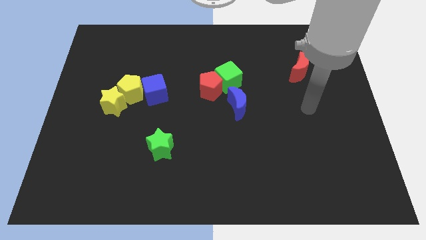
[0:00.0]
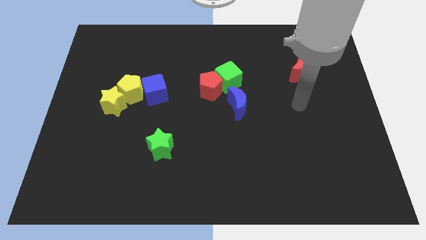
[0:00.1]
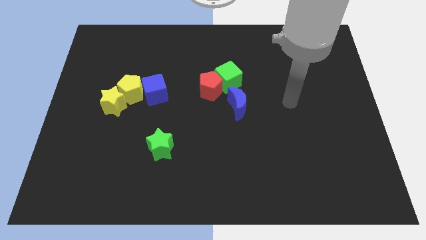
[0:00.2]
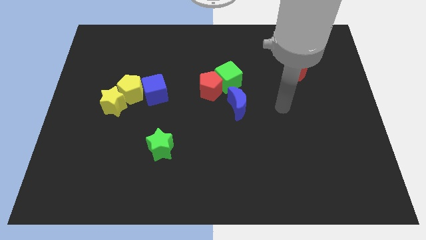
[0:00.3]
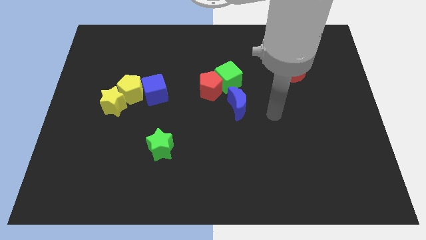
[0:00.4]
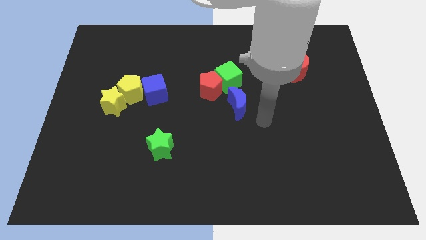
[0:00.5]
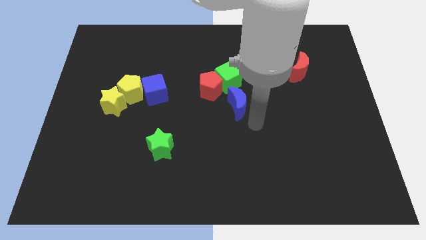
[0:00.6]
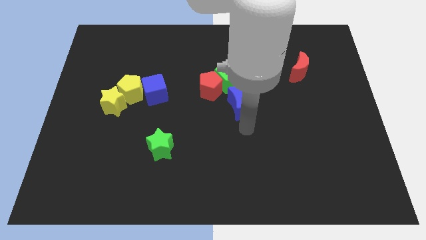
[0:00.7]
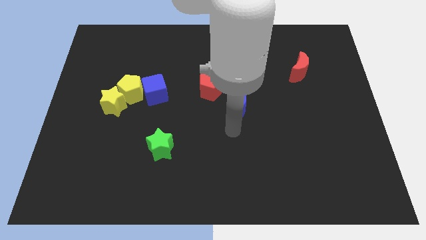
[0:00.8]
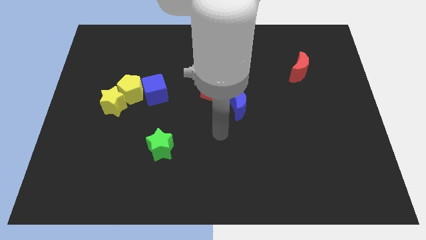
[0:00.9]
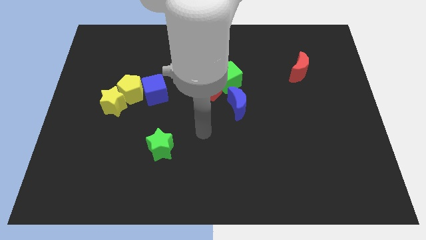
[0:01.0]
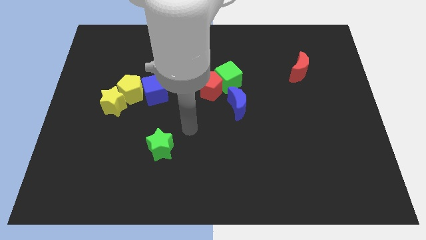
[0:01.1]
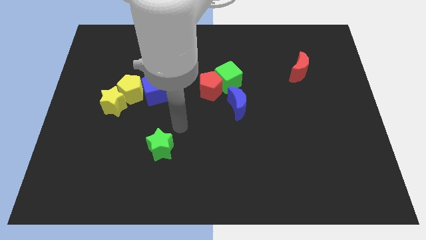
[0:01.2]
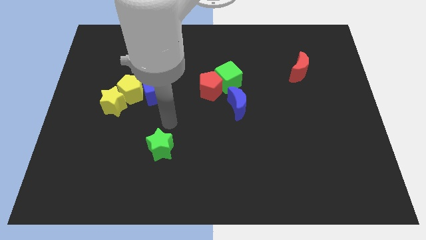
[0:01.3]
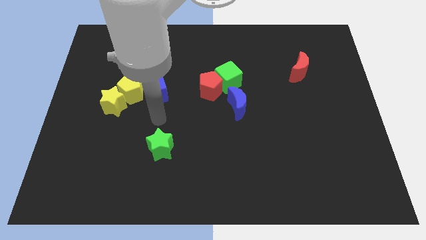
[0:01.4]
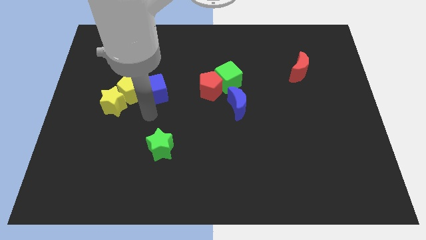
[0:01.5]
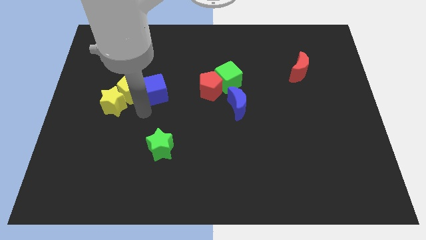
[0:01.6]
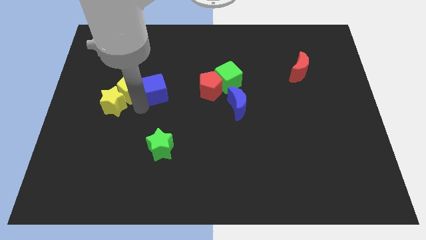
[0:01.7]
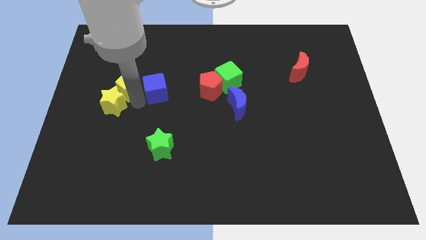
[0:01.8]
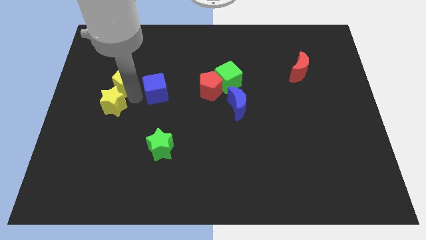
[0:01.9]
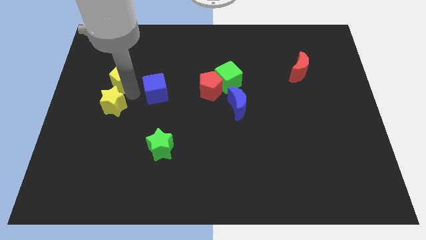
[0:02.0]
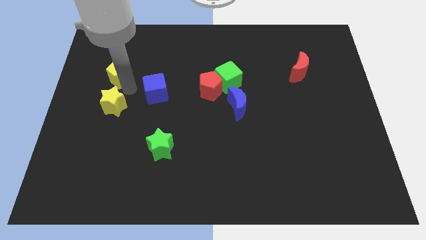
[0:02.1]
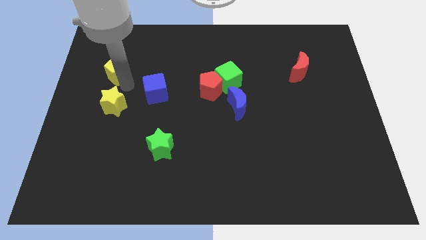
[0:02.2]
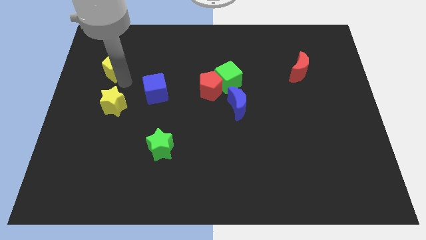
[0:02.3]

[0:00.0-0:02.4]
move the yellow pentagon away from the yellow star and blue cube

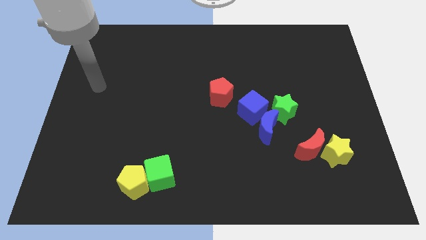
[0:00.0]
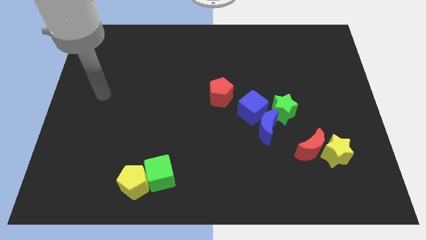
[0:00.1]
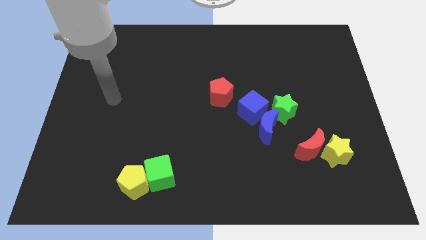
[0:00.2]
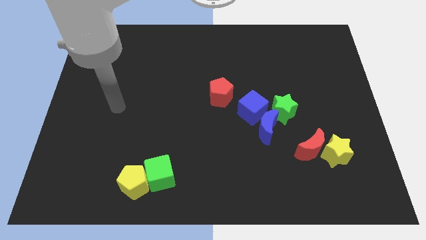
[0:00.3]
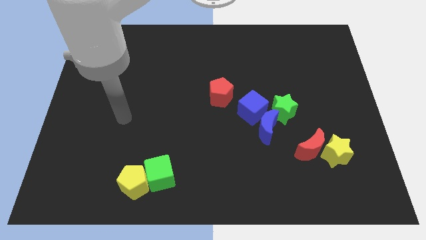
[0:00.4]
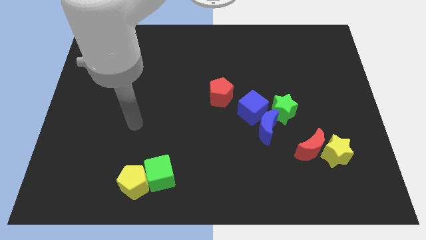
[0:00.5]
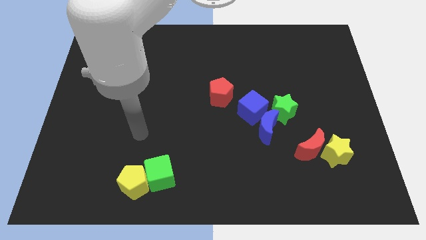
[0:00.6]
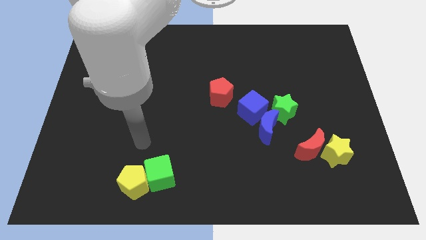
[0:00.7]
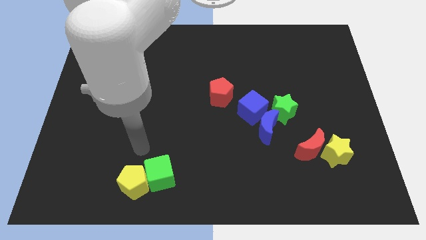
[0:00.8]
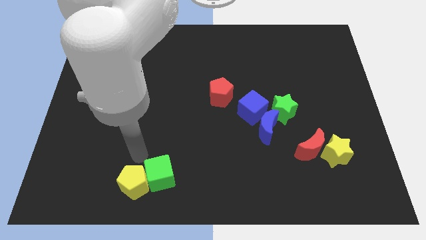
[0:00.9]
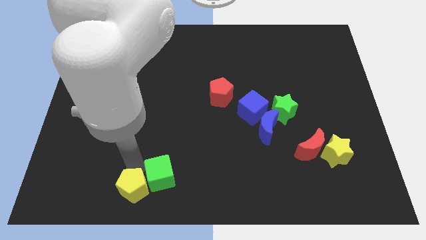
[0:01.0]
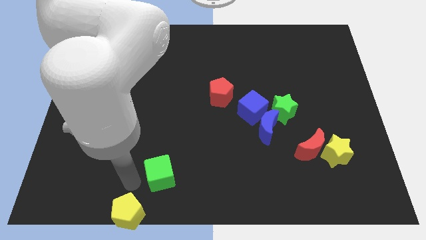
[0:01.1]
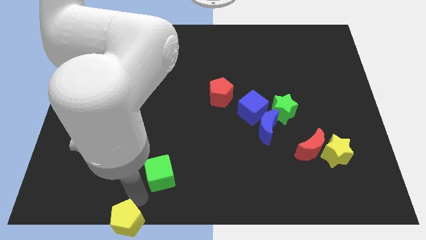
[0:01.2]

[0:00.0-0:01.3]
pull the green cube apart from the yellow pentagon

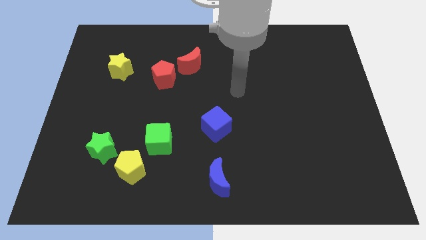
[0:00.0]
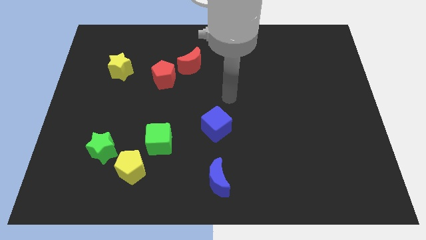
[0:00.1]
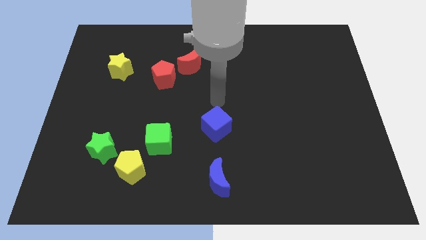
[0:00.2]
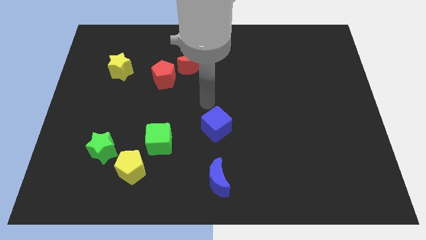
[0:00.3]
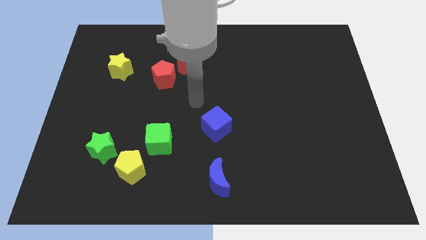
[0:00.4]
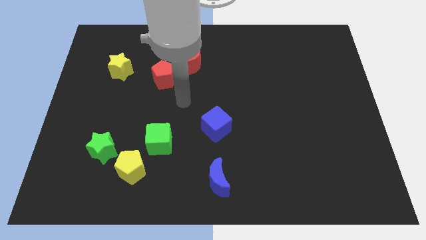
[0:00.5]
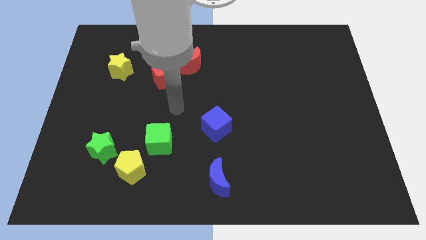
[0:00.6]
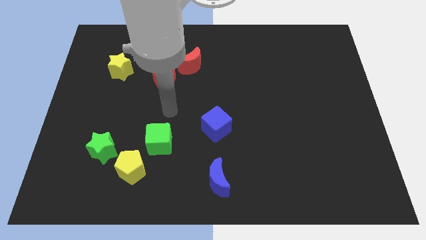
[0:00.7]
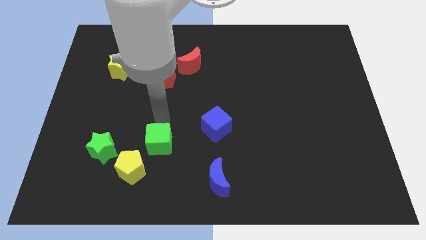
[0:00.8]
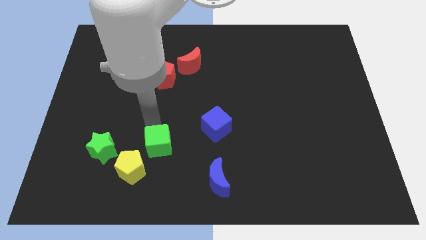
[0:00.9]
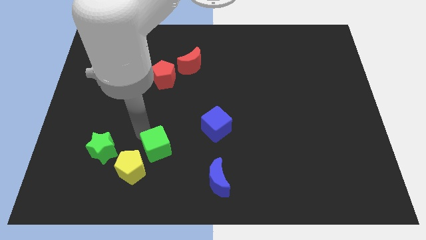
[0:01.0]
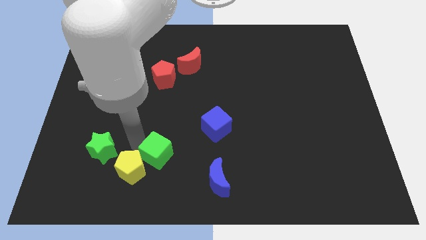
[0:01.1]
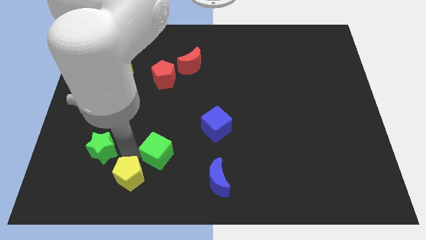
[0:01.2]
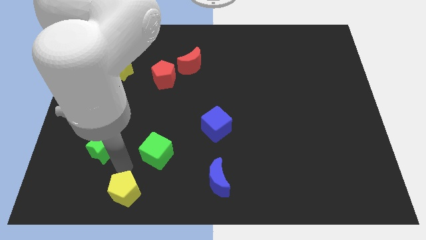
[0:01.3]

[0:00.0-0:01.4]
separate the green star from the yellow pentagon

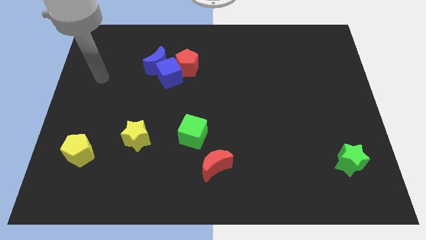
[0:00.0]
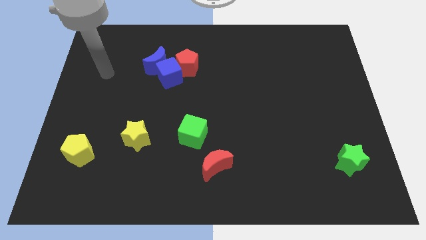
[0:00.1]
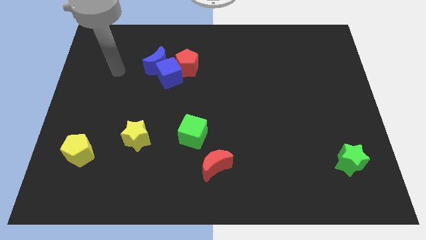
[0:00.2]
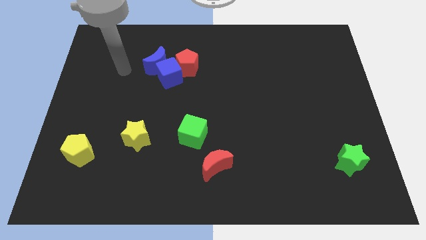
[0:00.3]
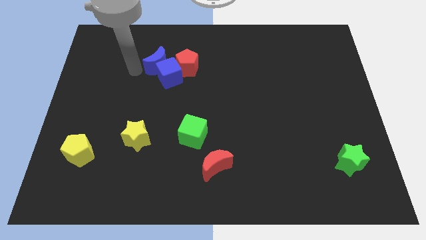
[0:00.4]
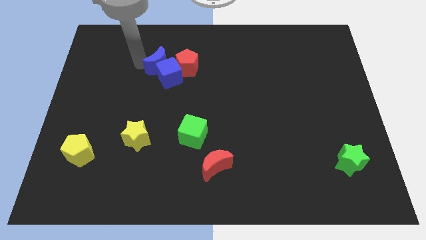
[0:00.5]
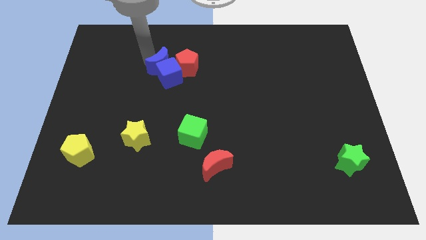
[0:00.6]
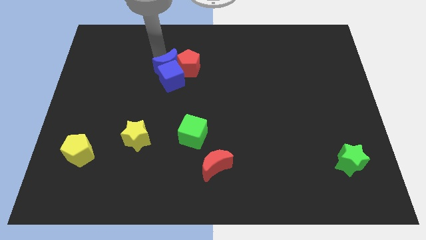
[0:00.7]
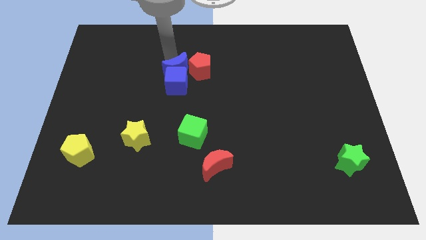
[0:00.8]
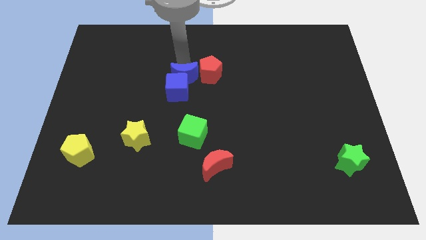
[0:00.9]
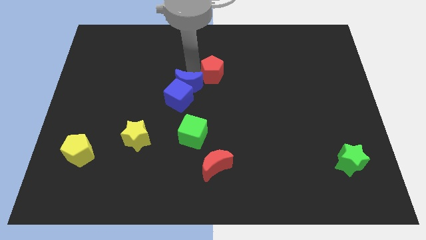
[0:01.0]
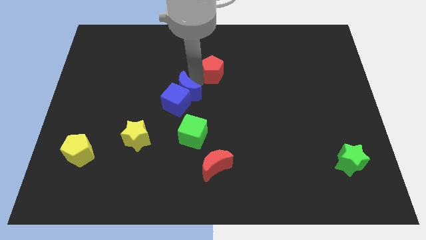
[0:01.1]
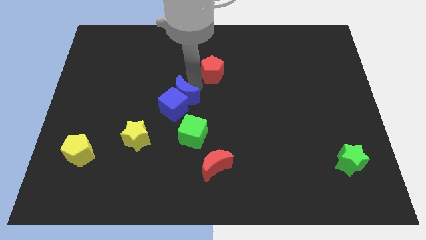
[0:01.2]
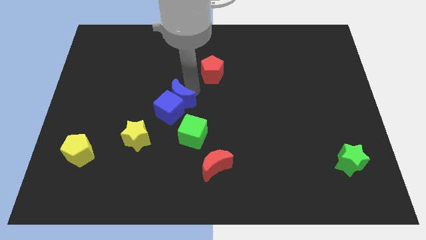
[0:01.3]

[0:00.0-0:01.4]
move the blue cube away from the blue moon and red pentagon

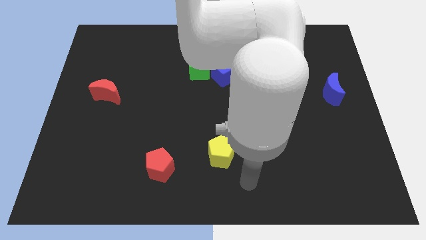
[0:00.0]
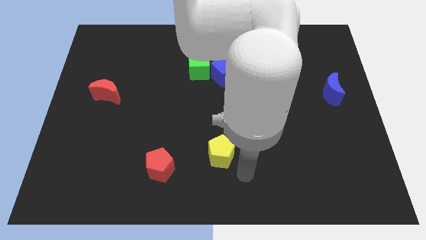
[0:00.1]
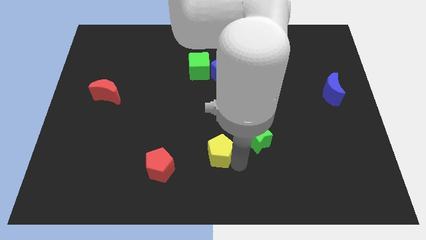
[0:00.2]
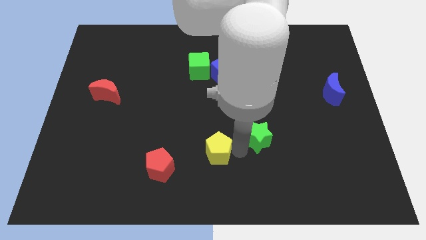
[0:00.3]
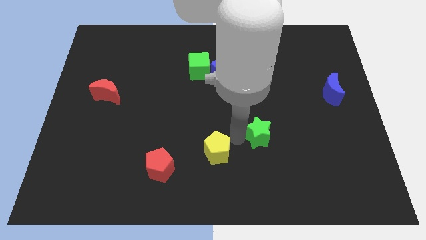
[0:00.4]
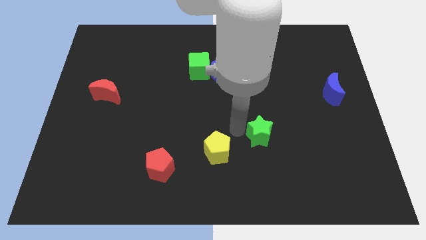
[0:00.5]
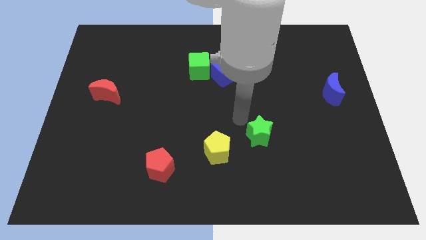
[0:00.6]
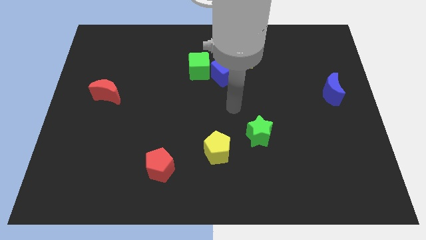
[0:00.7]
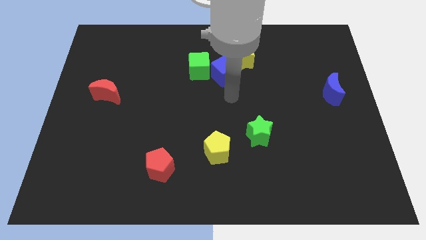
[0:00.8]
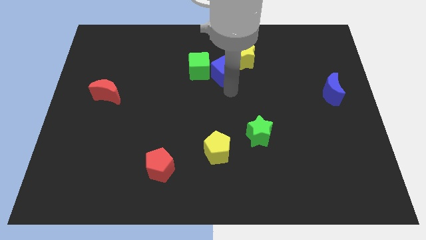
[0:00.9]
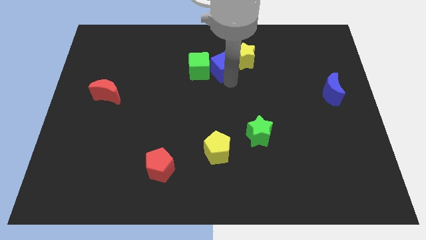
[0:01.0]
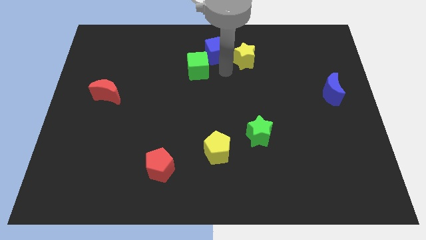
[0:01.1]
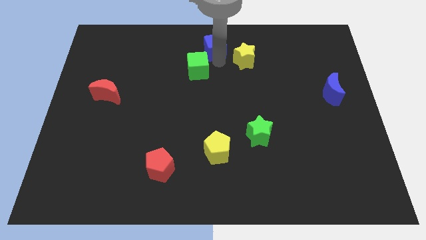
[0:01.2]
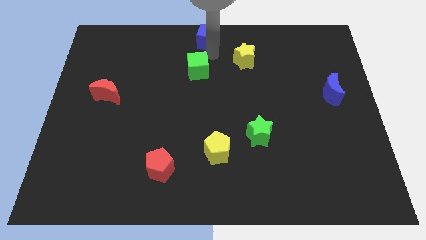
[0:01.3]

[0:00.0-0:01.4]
move the green cube away from the blue cube

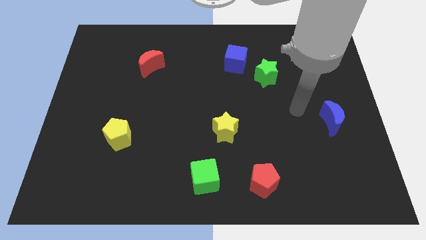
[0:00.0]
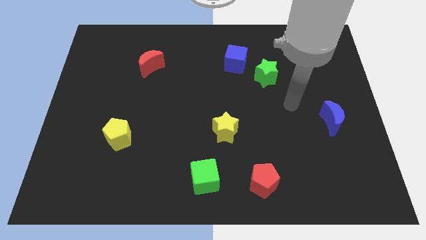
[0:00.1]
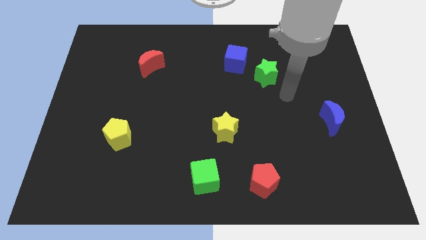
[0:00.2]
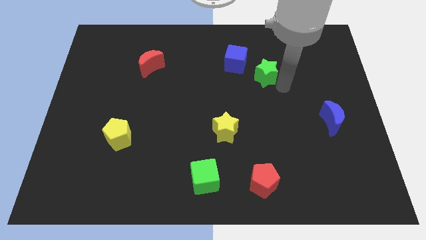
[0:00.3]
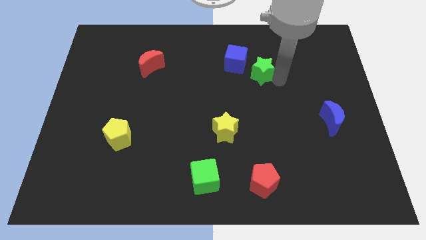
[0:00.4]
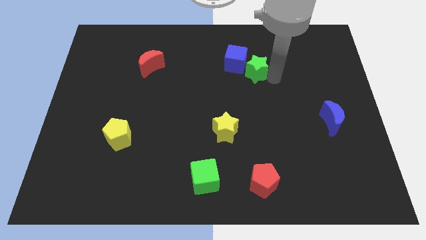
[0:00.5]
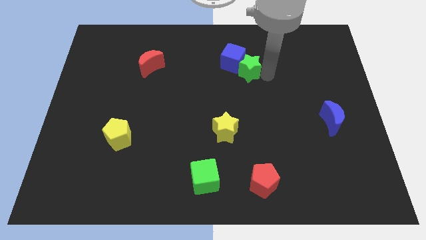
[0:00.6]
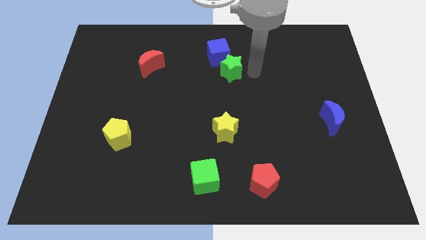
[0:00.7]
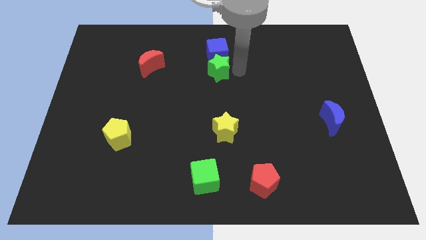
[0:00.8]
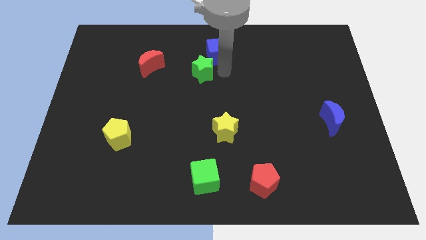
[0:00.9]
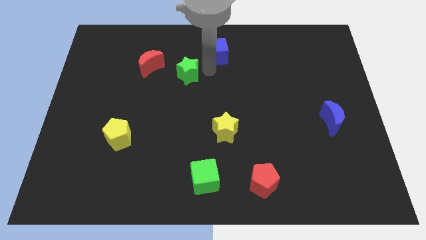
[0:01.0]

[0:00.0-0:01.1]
pull the blue cube apart from the green star

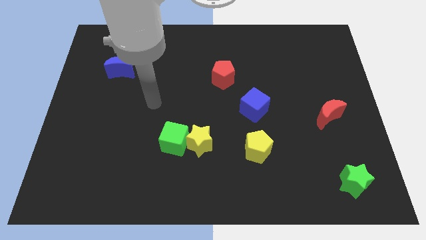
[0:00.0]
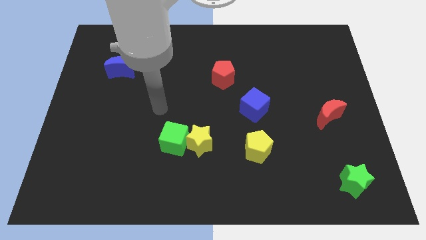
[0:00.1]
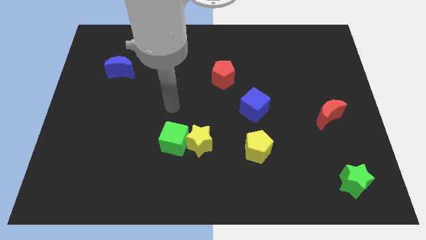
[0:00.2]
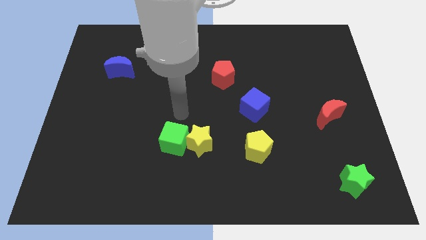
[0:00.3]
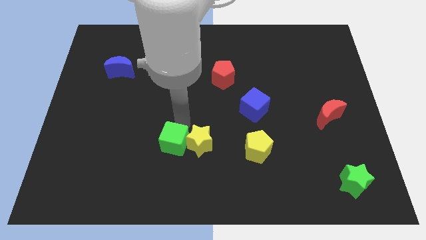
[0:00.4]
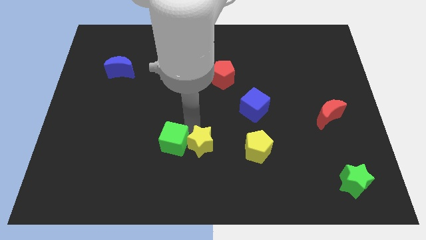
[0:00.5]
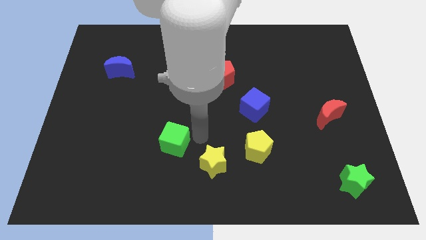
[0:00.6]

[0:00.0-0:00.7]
pull the green cube apart from the yellow star
